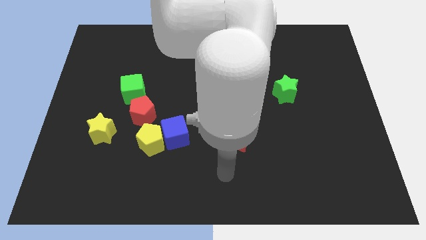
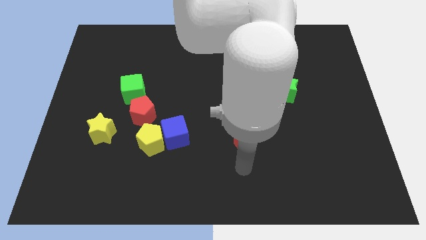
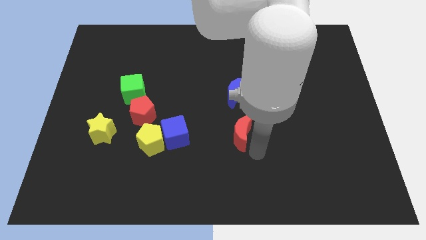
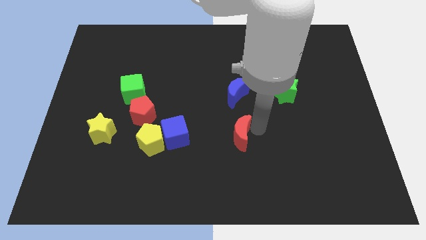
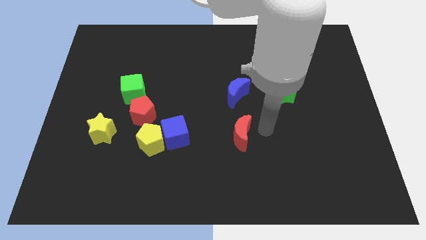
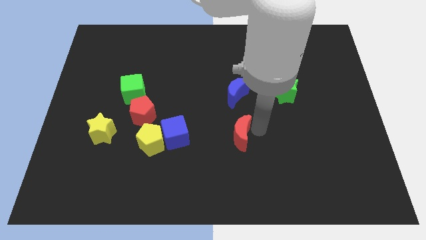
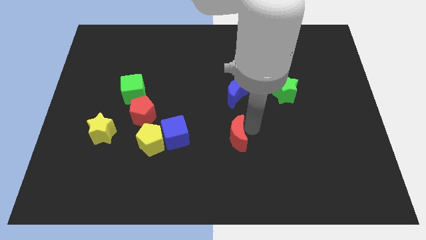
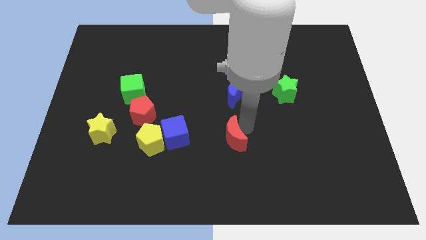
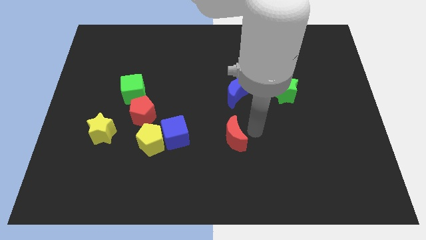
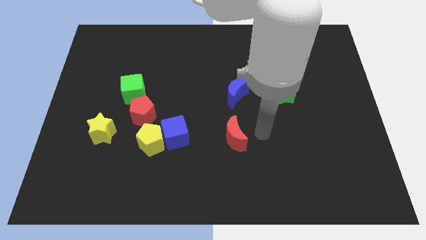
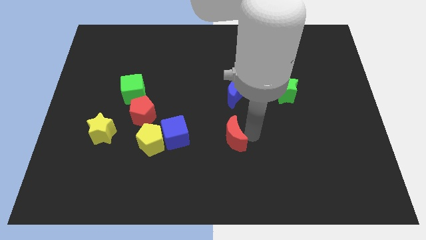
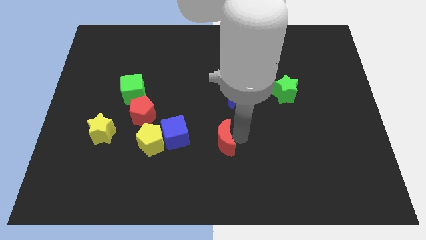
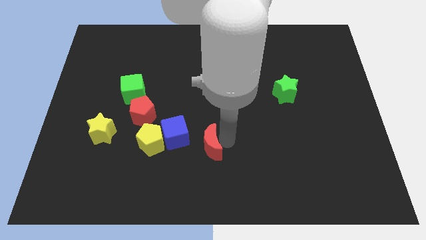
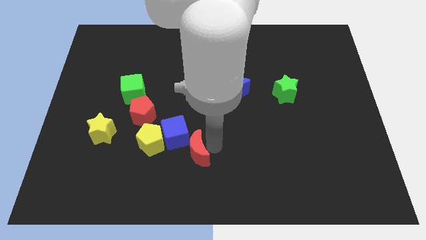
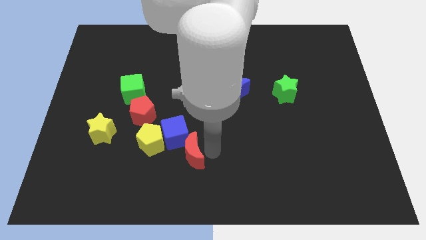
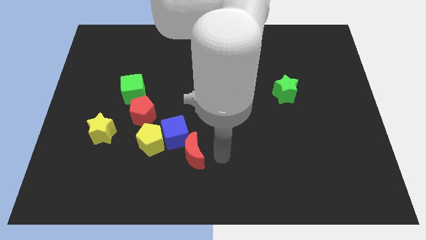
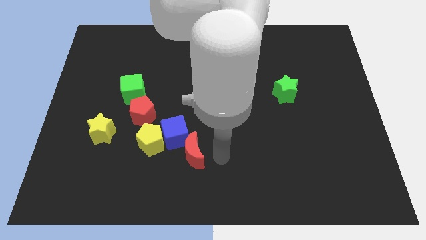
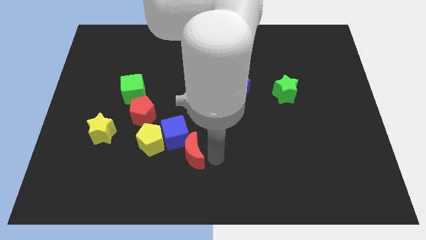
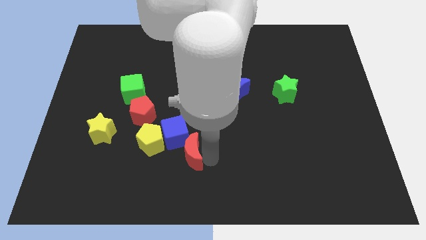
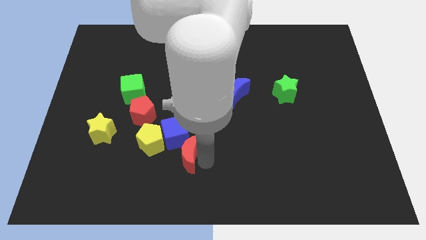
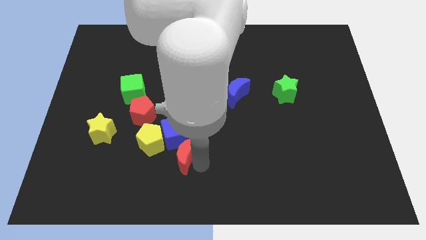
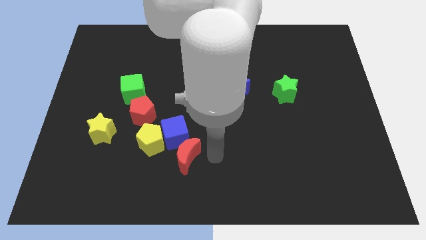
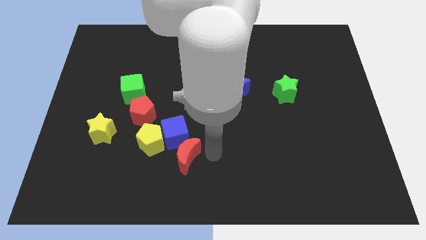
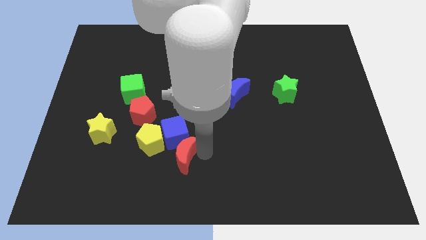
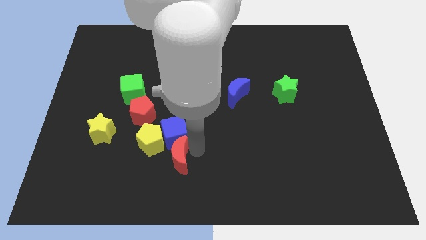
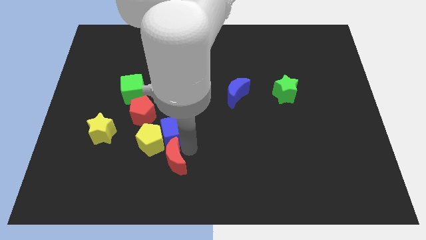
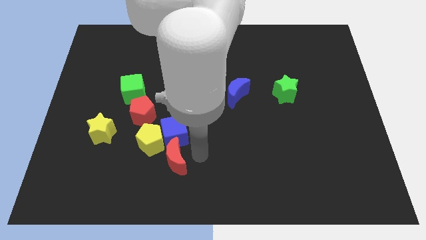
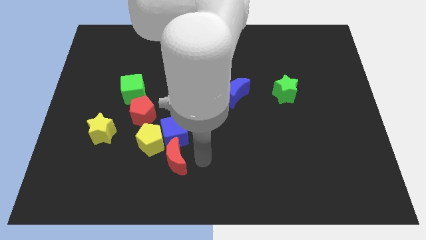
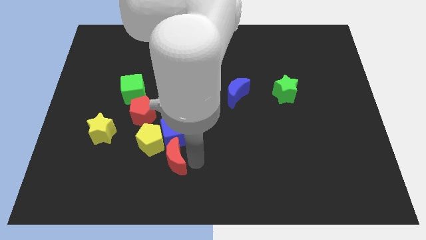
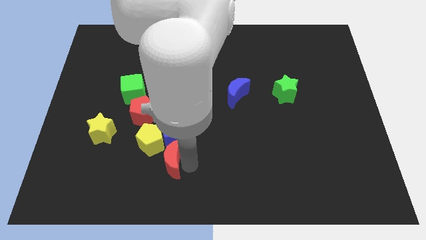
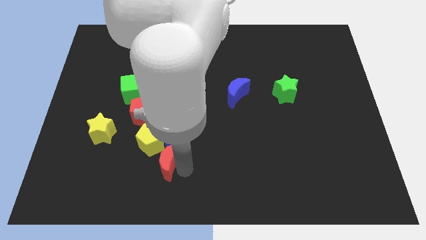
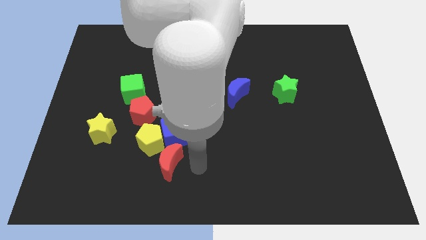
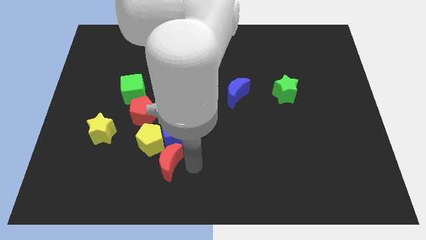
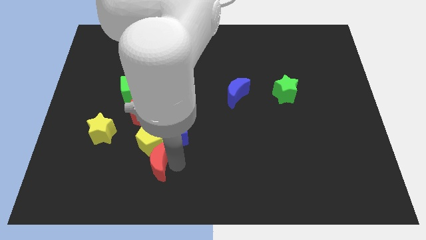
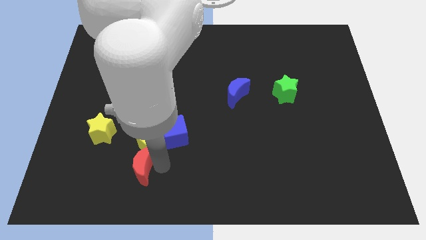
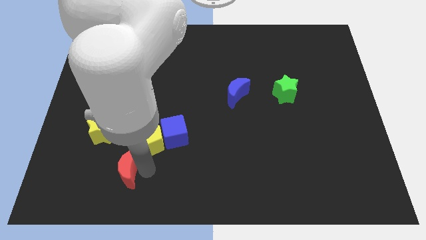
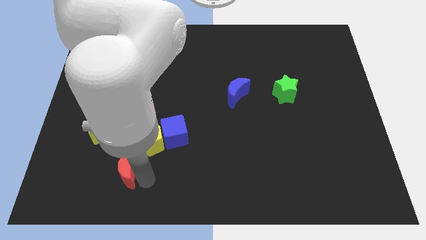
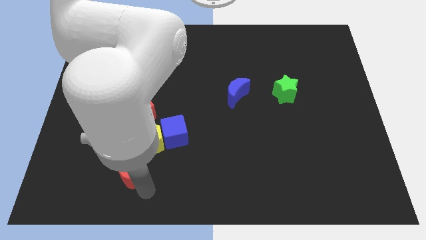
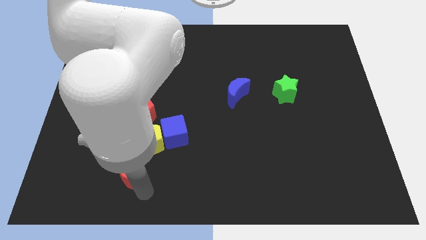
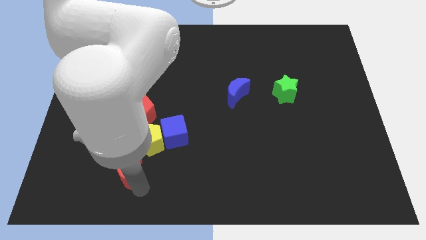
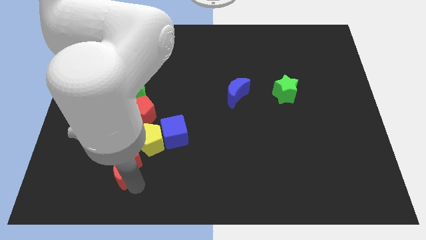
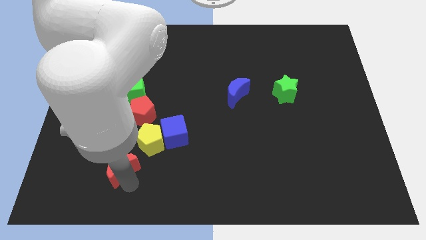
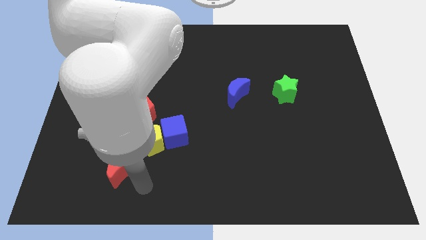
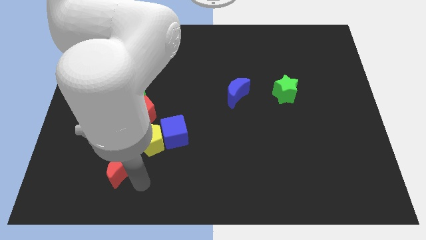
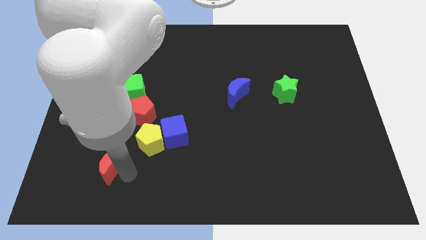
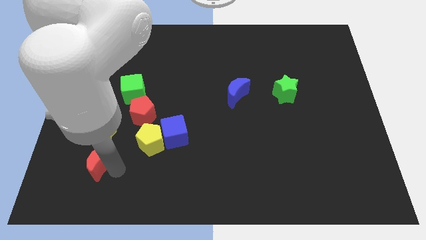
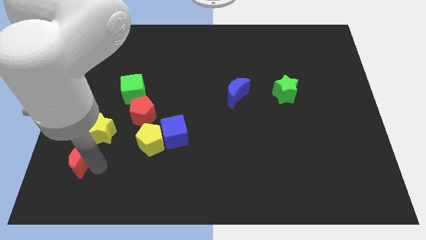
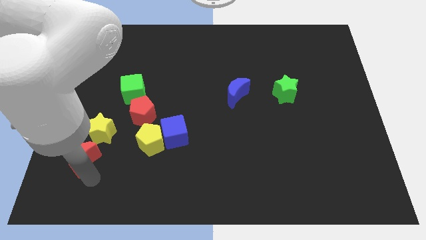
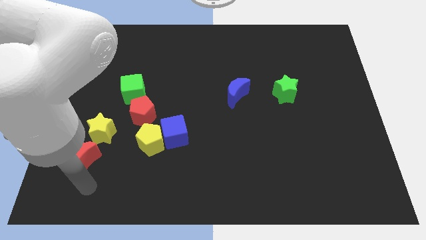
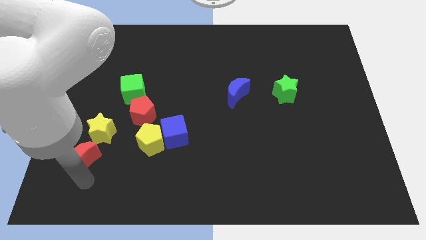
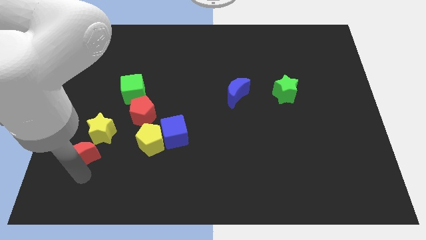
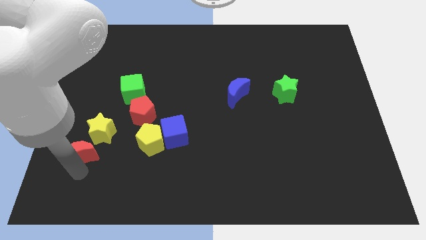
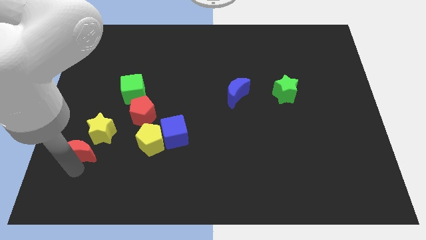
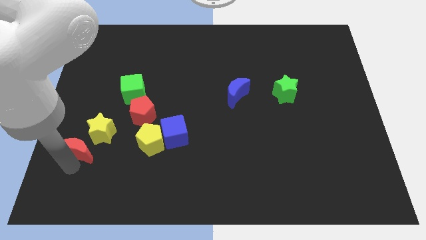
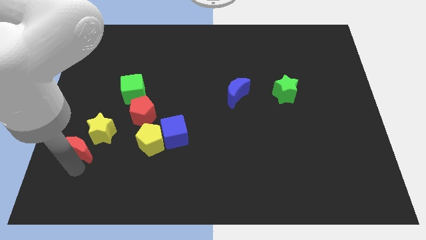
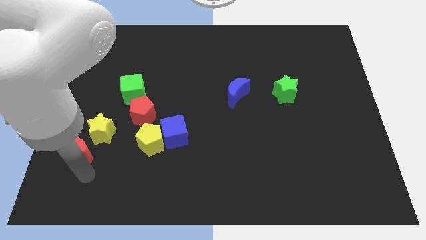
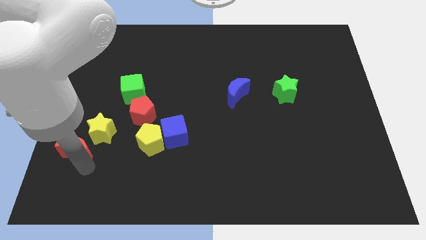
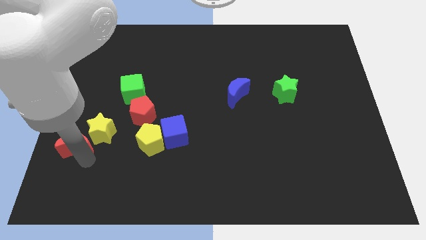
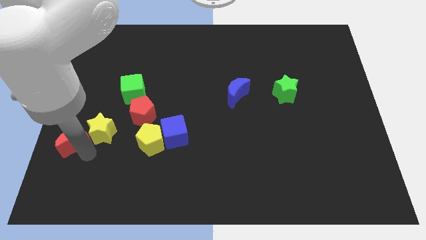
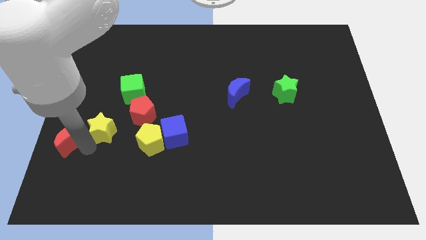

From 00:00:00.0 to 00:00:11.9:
slide the red moon to the left side

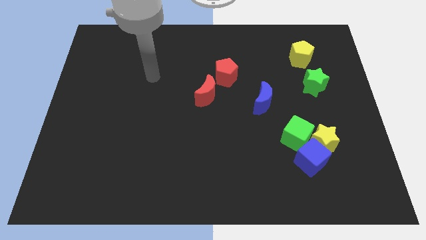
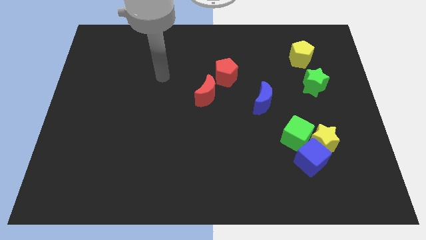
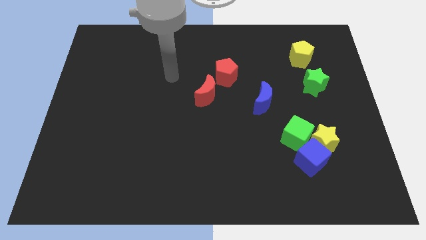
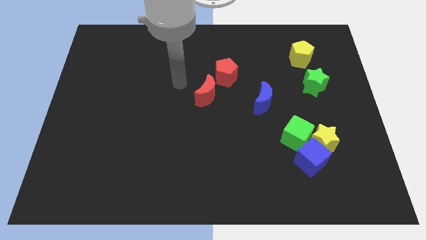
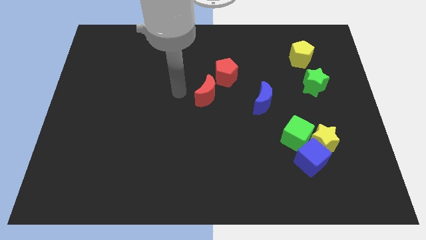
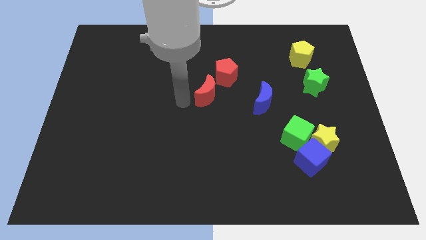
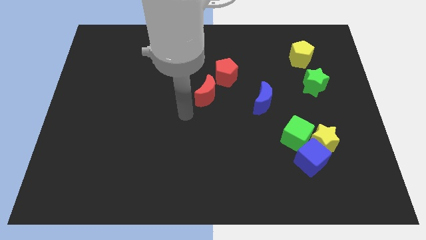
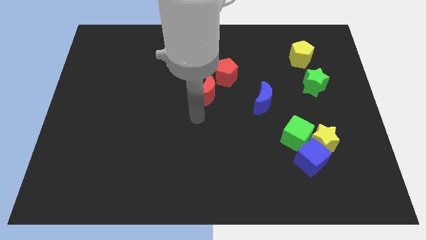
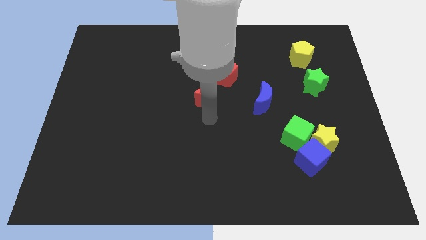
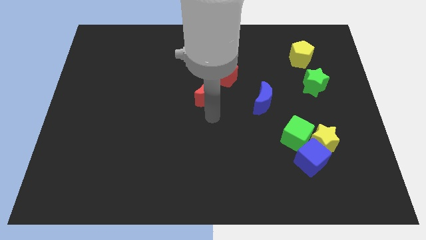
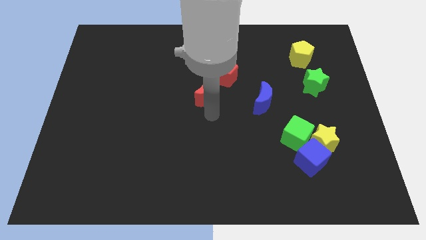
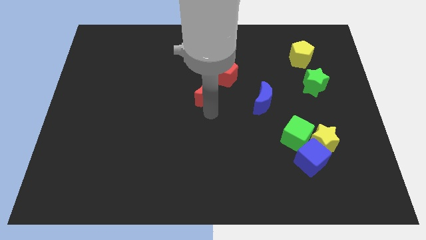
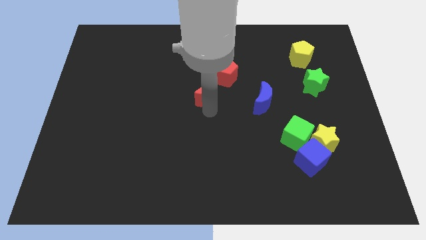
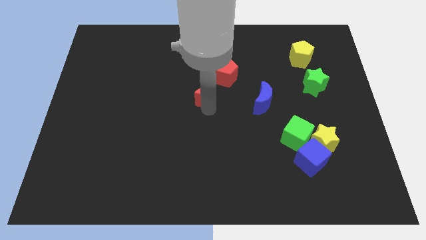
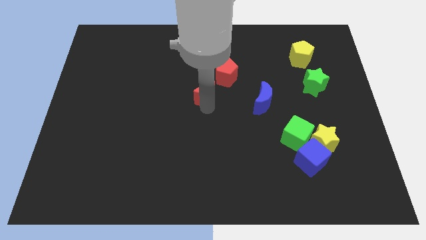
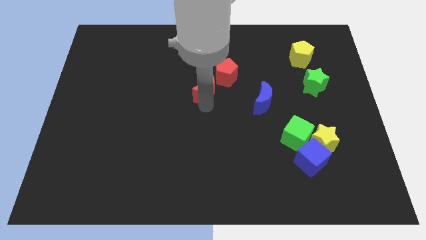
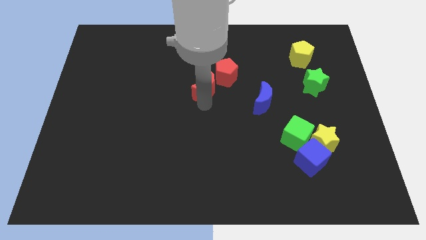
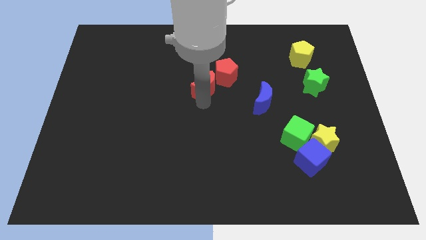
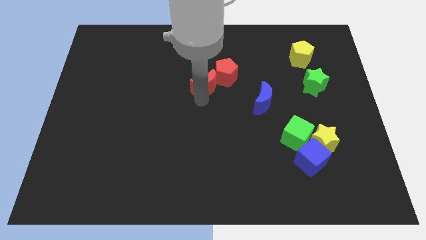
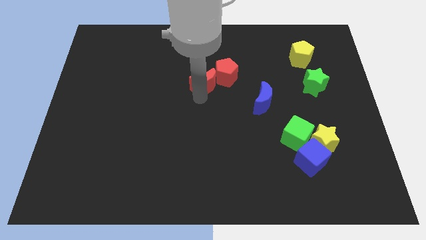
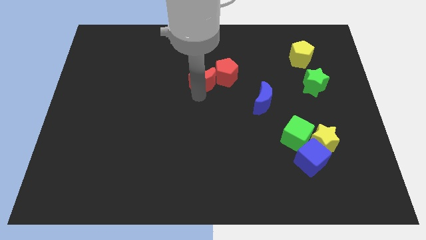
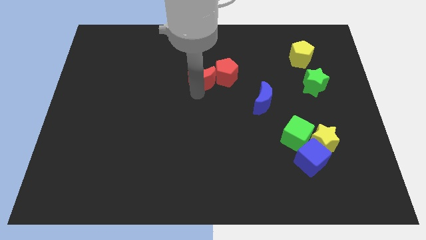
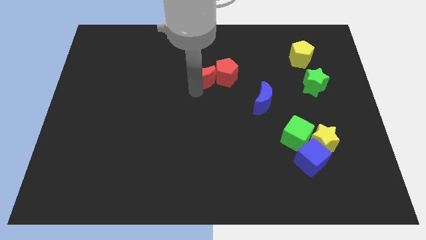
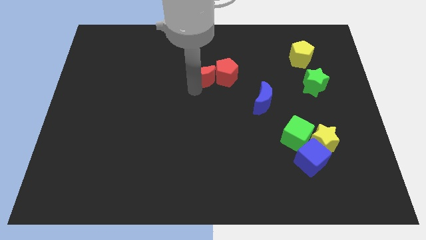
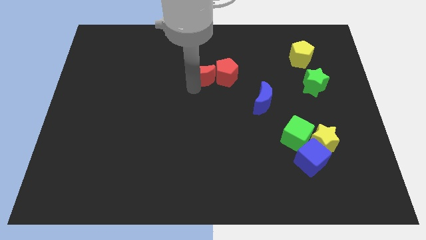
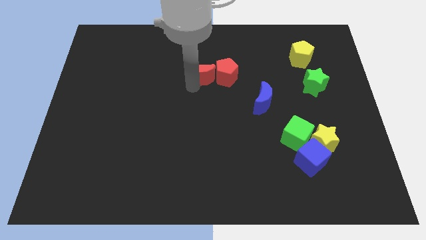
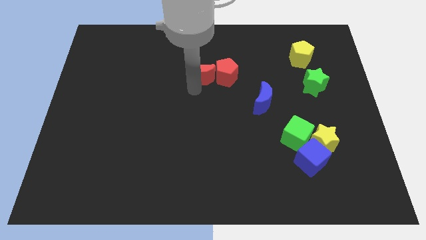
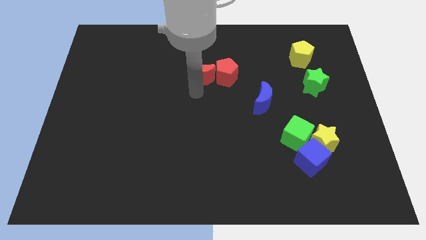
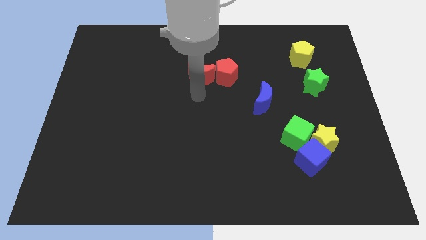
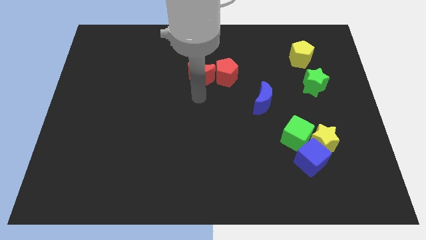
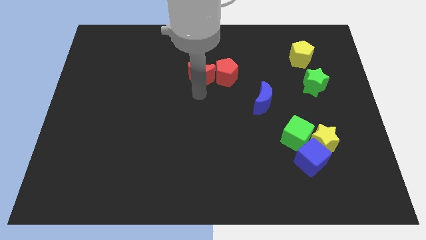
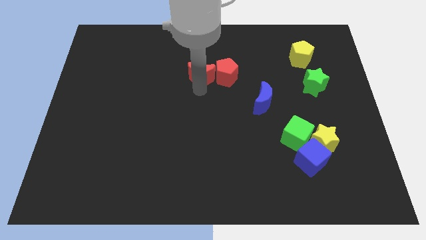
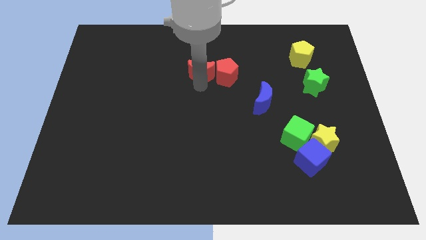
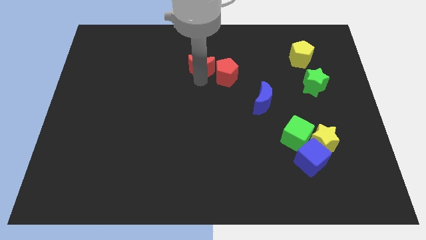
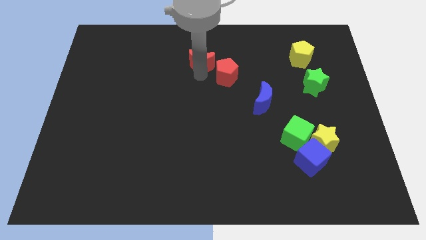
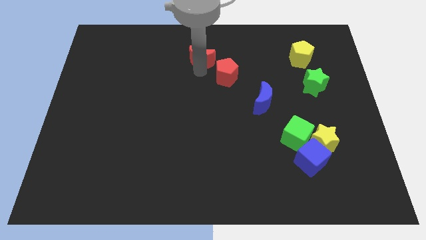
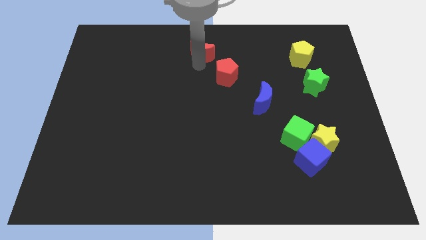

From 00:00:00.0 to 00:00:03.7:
move the red moon to the towards your base
